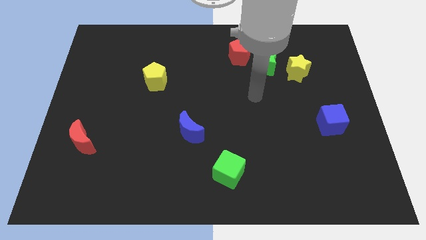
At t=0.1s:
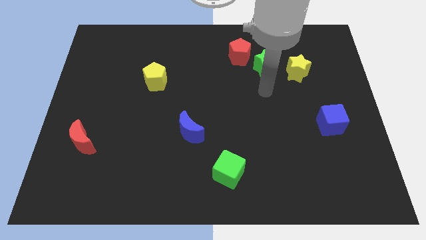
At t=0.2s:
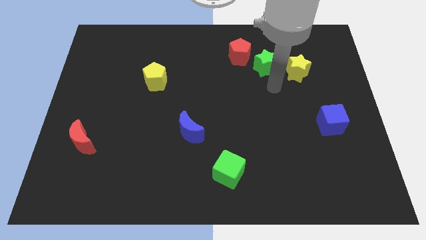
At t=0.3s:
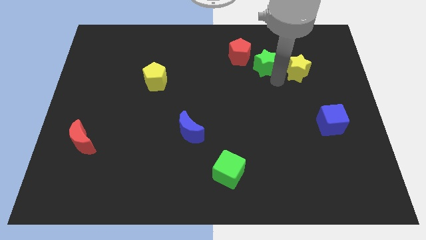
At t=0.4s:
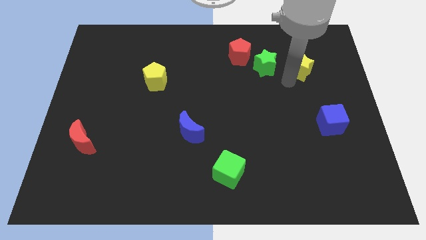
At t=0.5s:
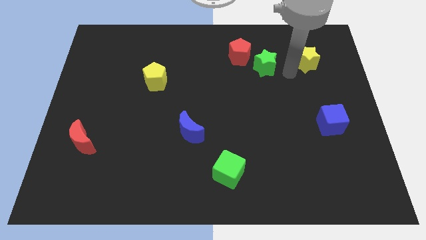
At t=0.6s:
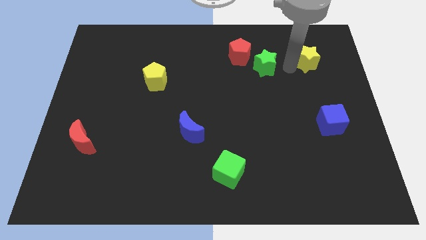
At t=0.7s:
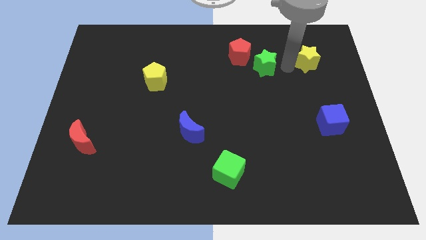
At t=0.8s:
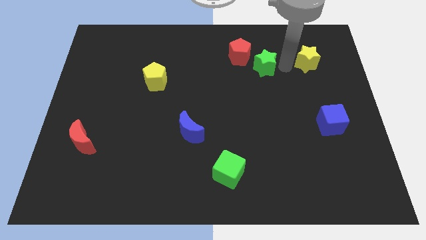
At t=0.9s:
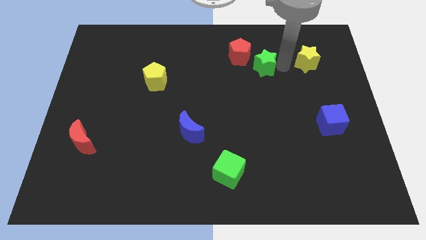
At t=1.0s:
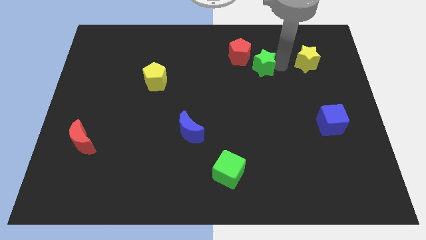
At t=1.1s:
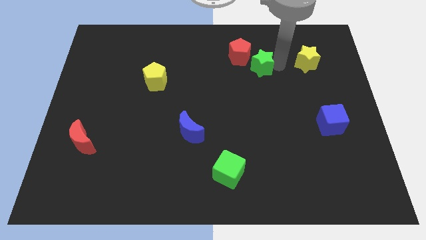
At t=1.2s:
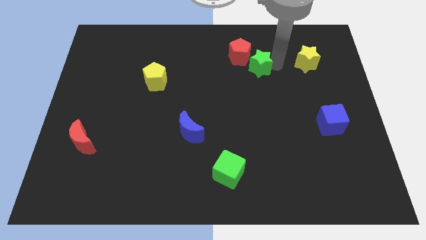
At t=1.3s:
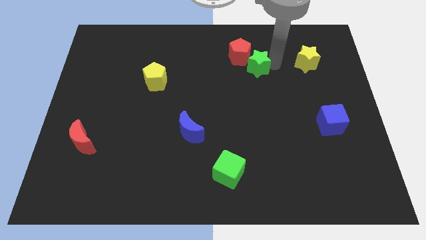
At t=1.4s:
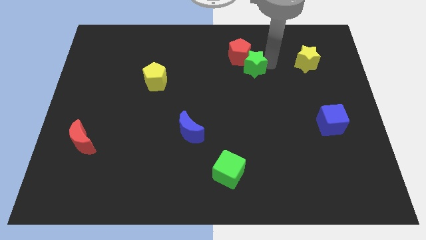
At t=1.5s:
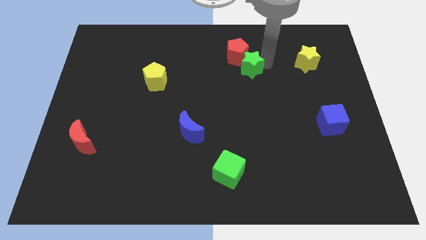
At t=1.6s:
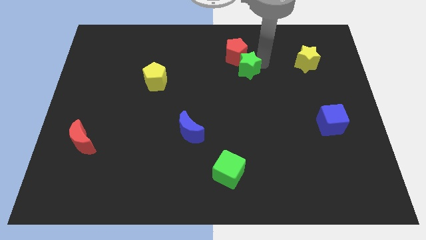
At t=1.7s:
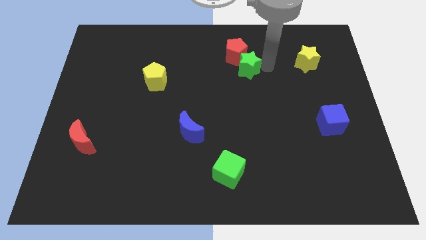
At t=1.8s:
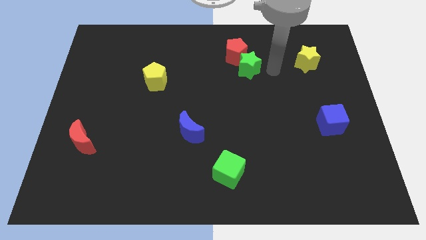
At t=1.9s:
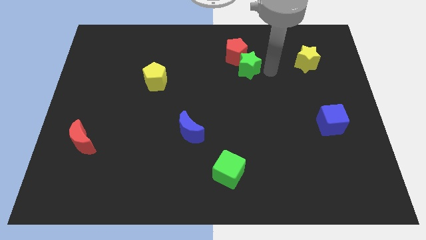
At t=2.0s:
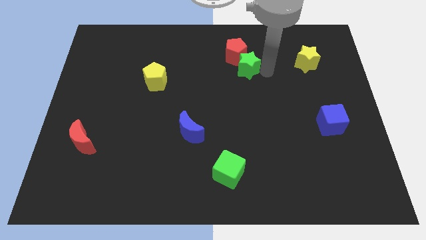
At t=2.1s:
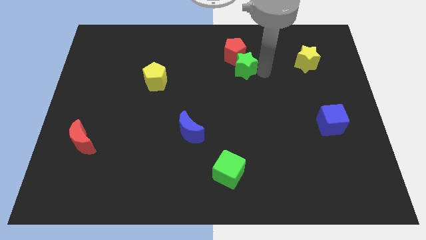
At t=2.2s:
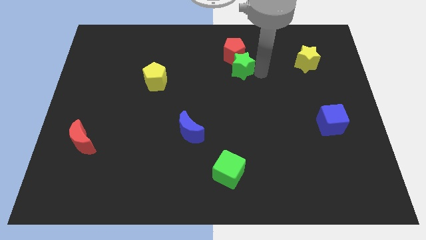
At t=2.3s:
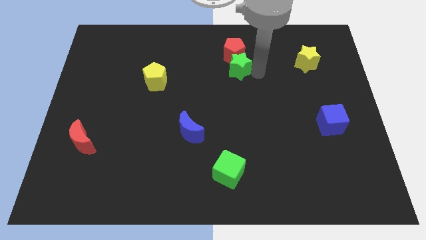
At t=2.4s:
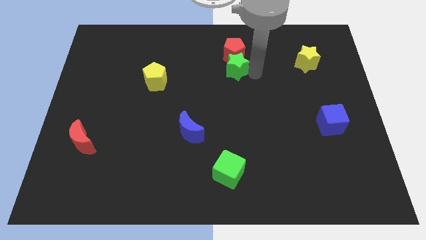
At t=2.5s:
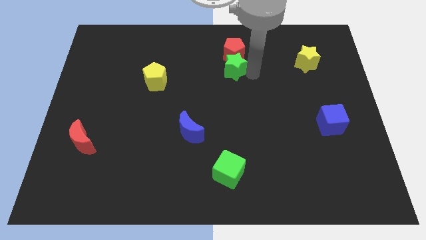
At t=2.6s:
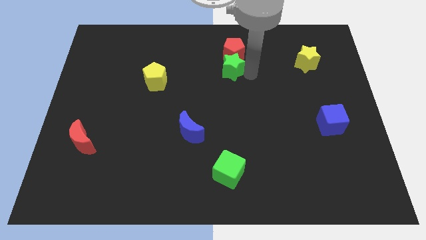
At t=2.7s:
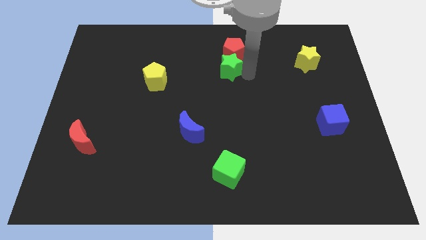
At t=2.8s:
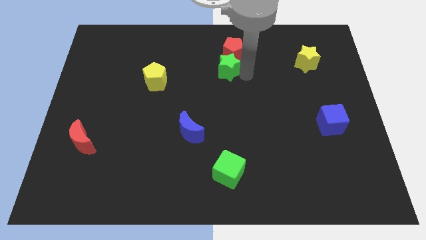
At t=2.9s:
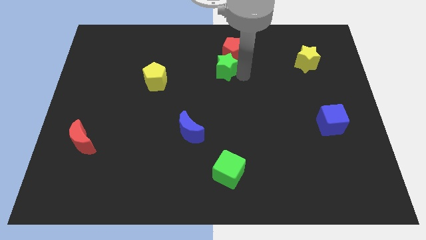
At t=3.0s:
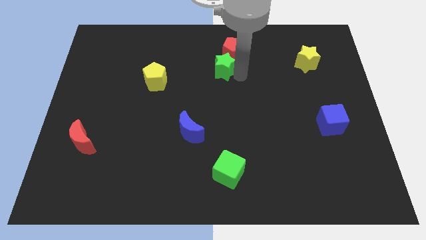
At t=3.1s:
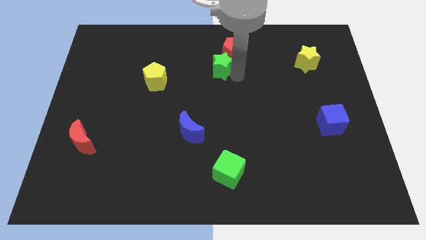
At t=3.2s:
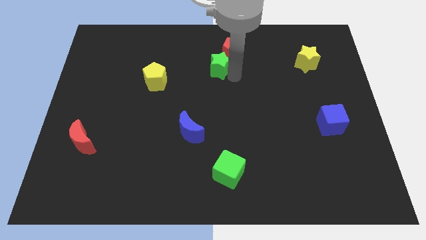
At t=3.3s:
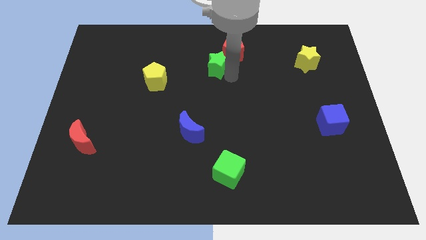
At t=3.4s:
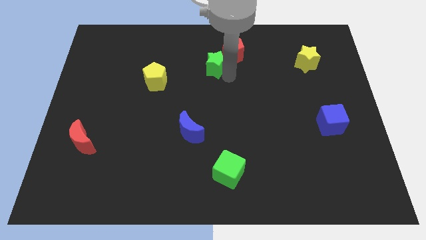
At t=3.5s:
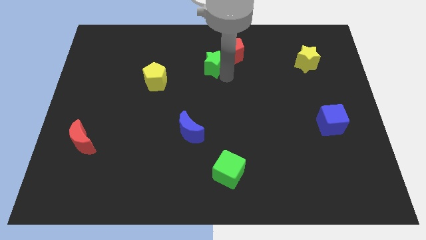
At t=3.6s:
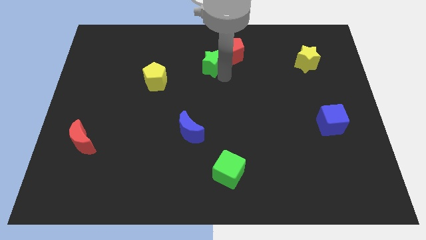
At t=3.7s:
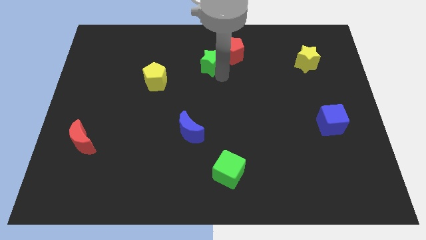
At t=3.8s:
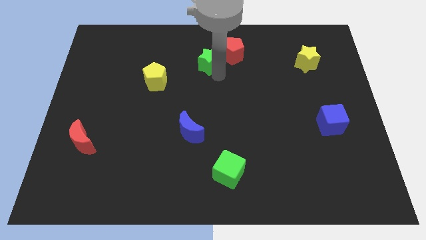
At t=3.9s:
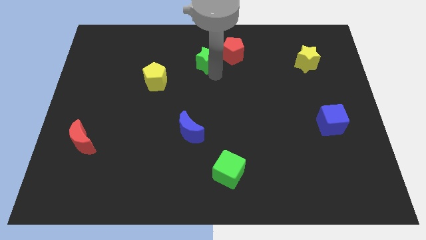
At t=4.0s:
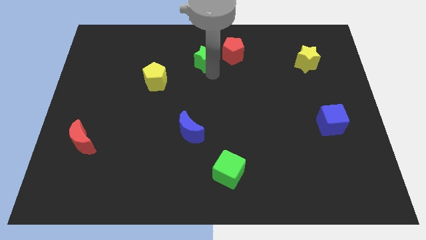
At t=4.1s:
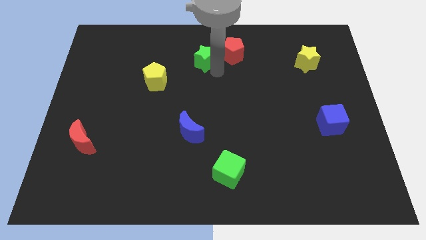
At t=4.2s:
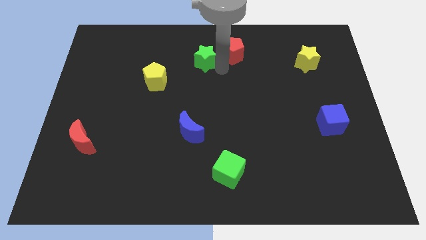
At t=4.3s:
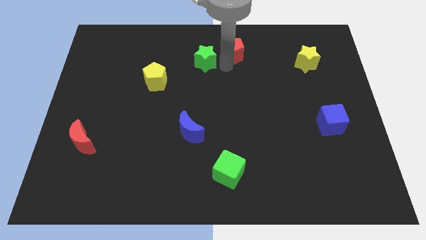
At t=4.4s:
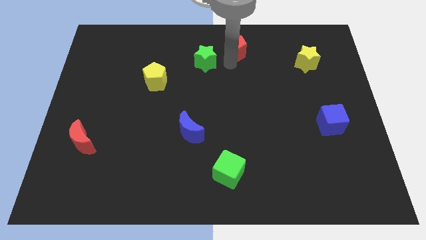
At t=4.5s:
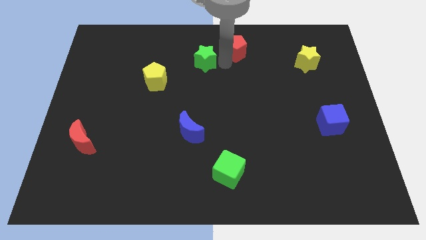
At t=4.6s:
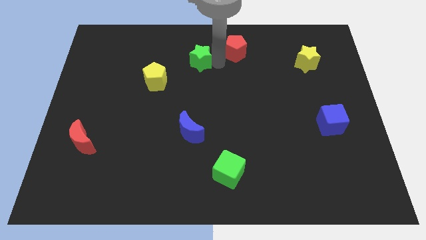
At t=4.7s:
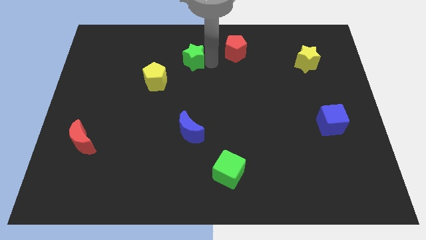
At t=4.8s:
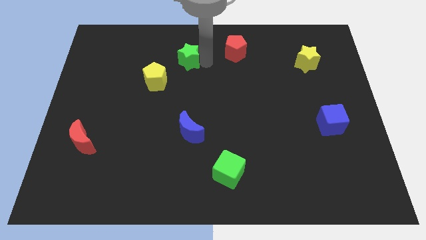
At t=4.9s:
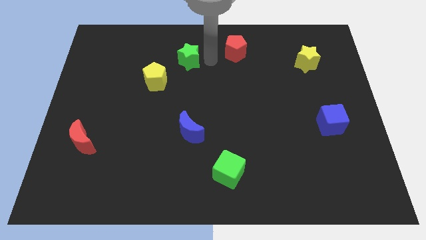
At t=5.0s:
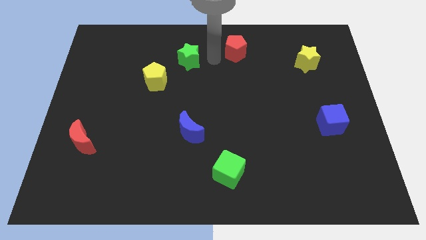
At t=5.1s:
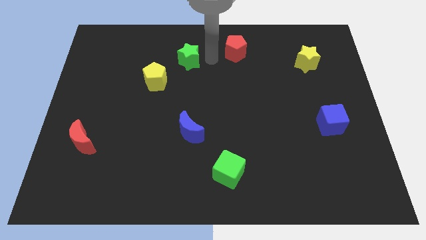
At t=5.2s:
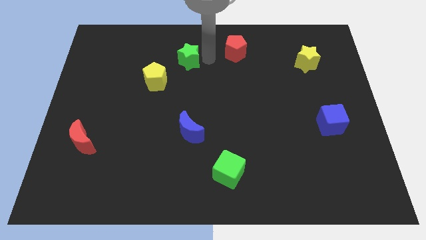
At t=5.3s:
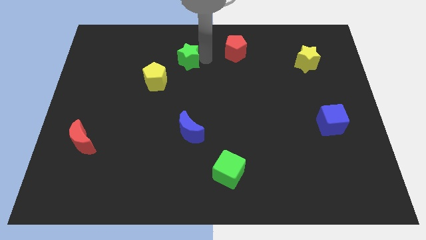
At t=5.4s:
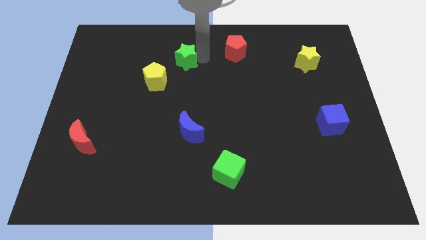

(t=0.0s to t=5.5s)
slide the green star to the left

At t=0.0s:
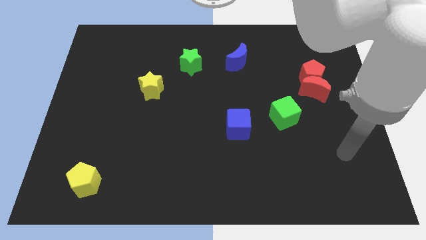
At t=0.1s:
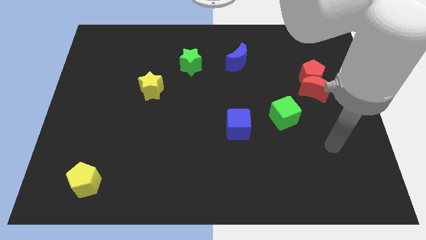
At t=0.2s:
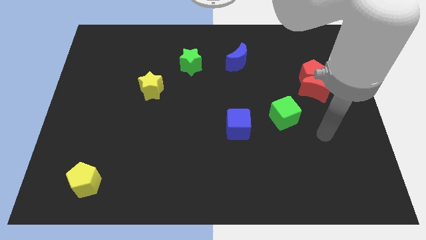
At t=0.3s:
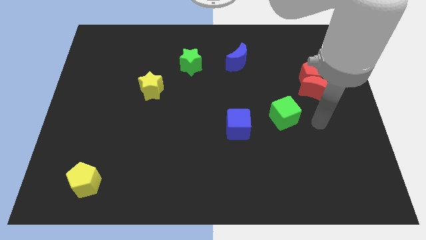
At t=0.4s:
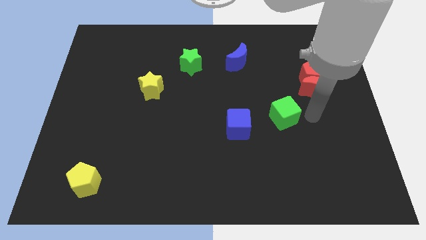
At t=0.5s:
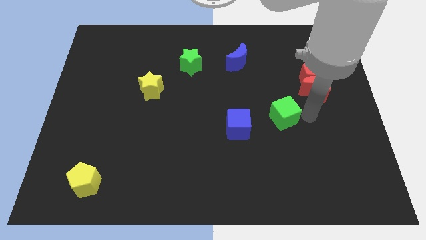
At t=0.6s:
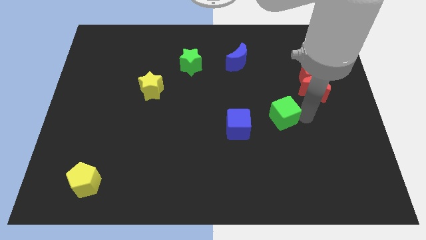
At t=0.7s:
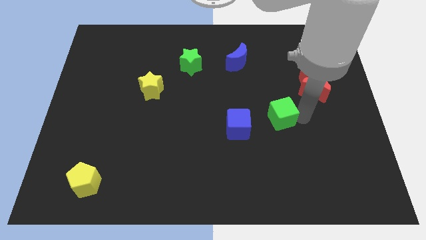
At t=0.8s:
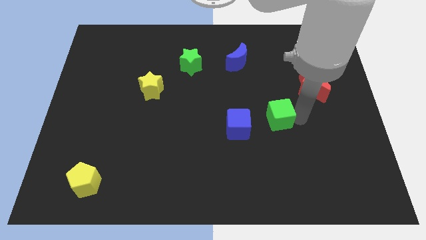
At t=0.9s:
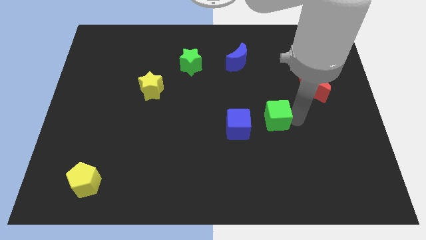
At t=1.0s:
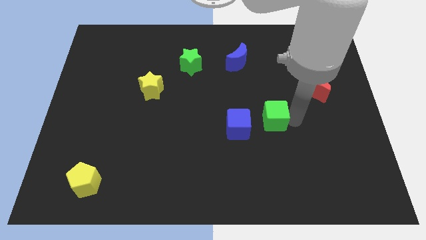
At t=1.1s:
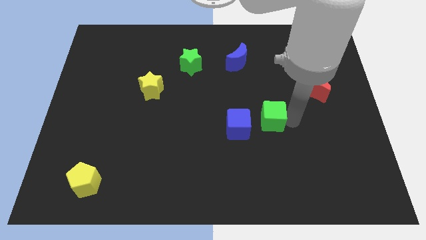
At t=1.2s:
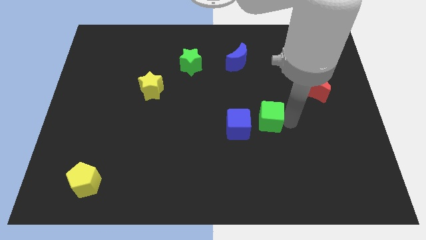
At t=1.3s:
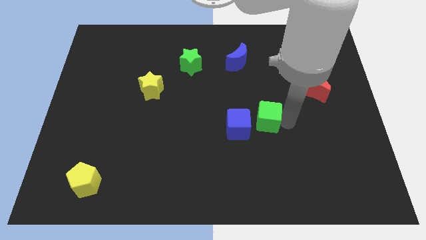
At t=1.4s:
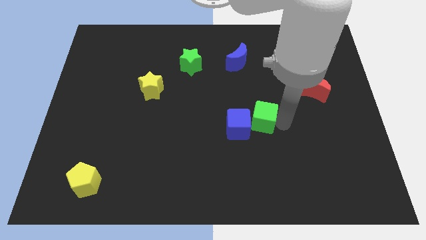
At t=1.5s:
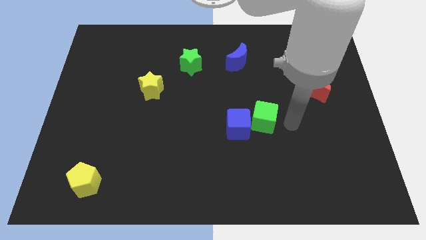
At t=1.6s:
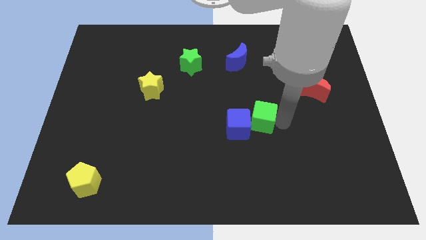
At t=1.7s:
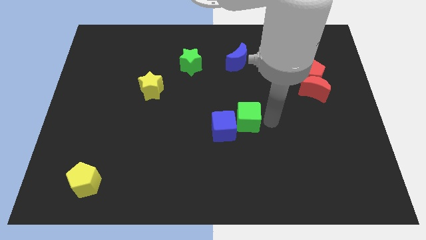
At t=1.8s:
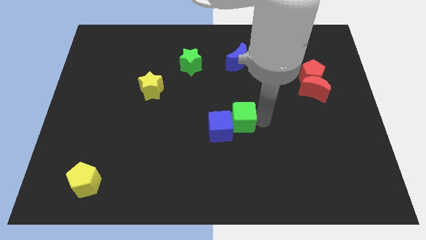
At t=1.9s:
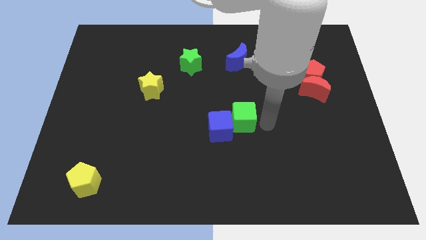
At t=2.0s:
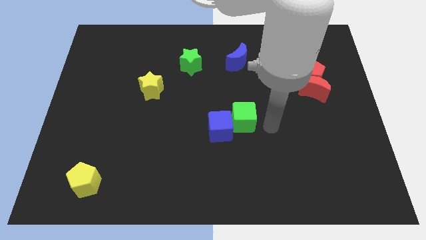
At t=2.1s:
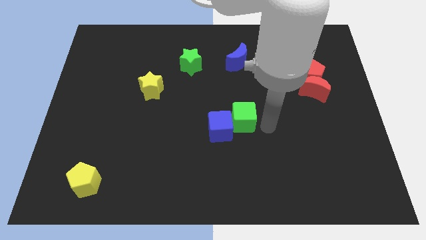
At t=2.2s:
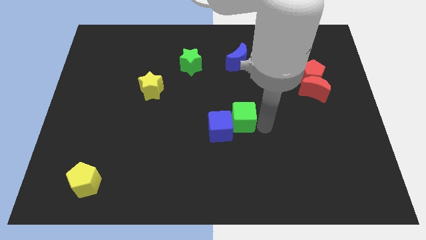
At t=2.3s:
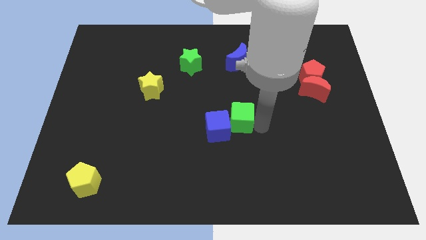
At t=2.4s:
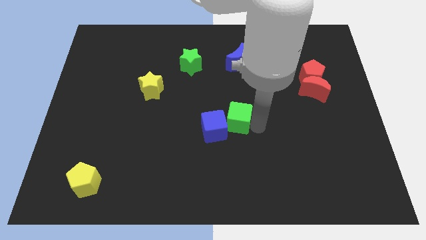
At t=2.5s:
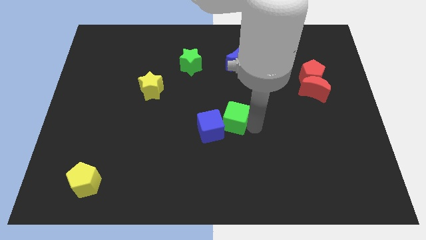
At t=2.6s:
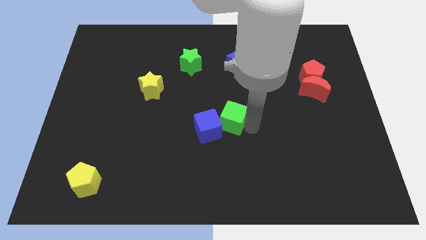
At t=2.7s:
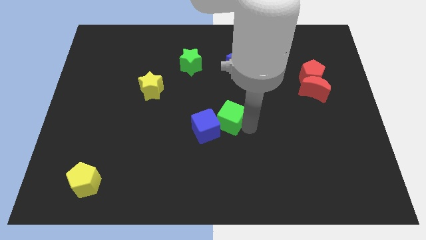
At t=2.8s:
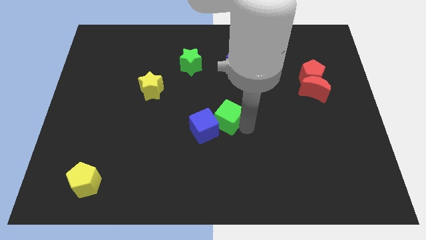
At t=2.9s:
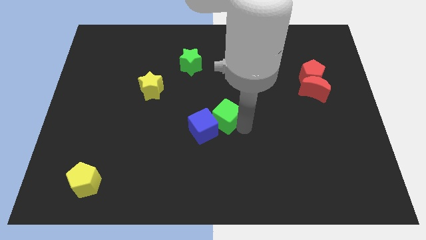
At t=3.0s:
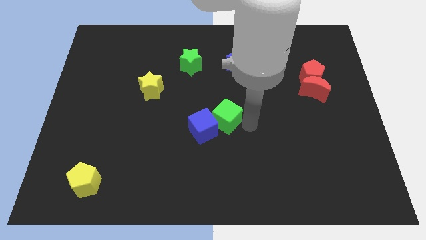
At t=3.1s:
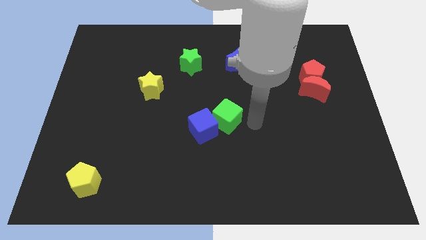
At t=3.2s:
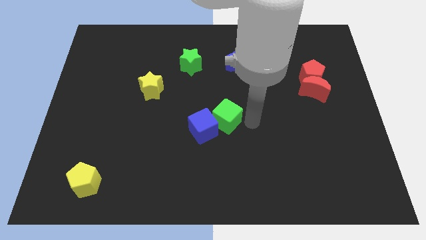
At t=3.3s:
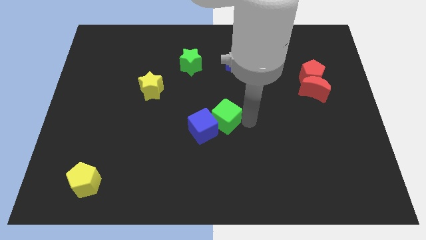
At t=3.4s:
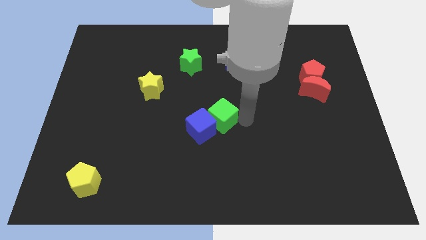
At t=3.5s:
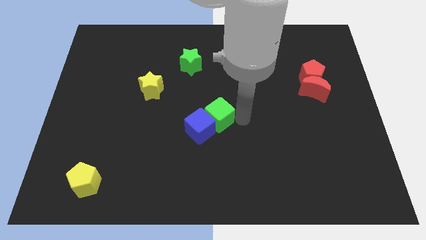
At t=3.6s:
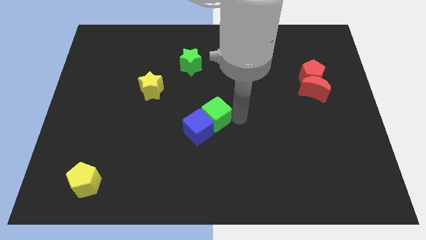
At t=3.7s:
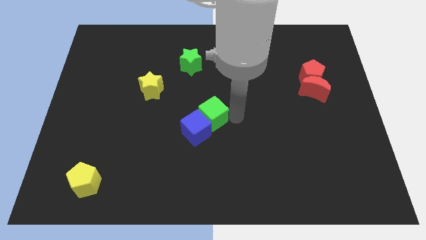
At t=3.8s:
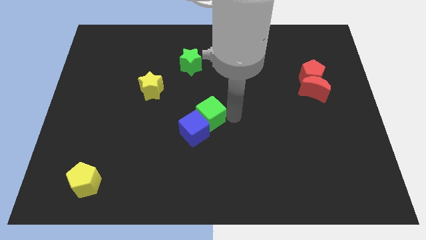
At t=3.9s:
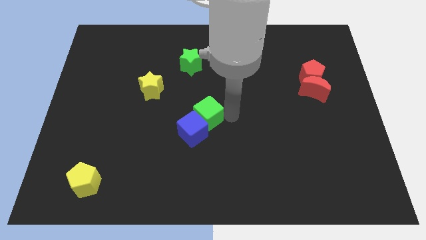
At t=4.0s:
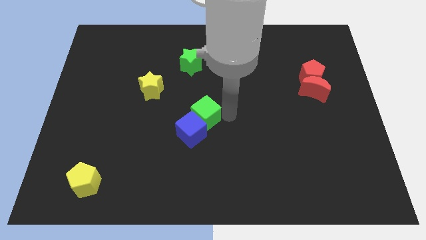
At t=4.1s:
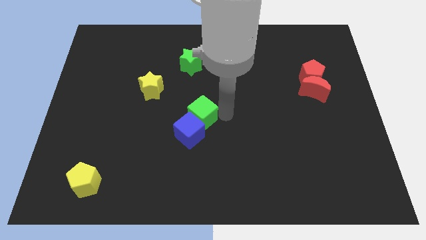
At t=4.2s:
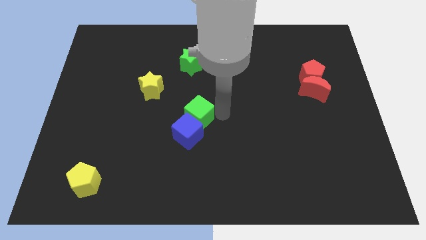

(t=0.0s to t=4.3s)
push the green cube left
